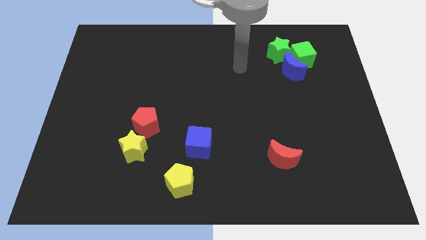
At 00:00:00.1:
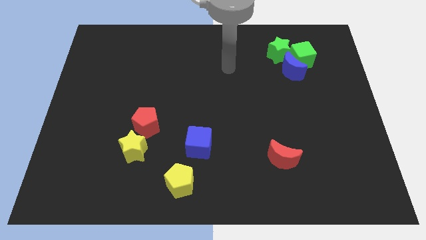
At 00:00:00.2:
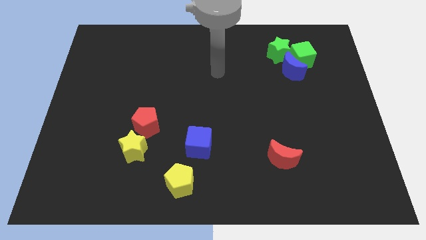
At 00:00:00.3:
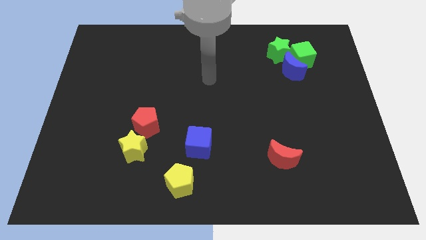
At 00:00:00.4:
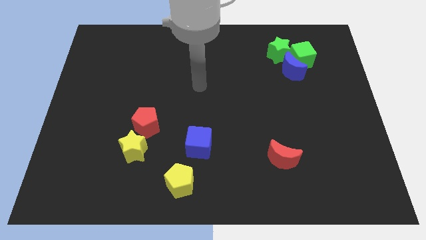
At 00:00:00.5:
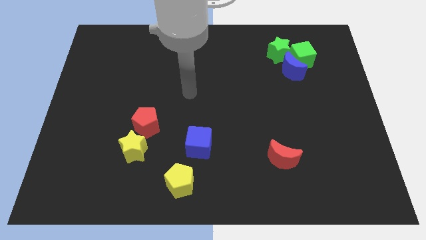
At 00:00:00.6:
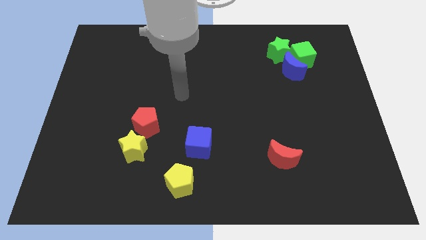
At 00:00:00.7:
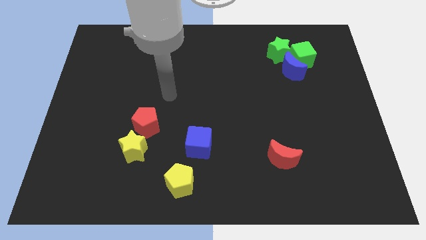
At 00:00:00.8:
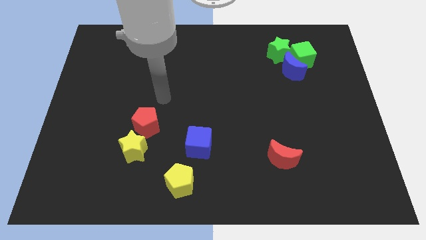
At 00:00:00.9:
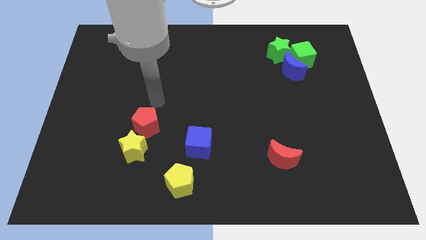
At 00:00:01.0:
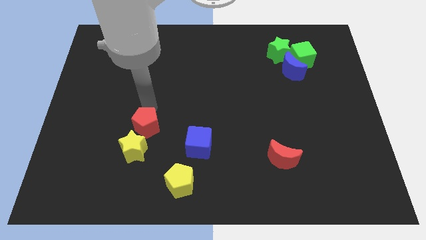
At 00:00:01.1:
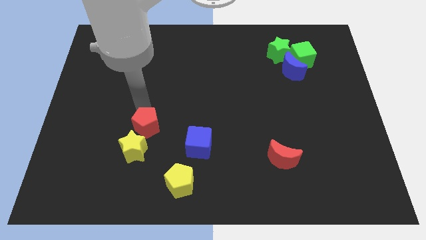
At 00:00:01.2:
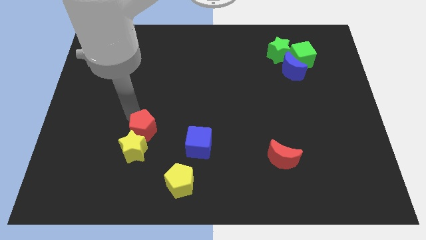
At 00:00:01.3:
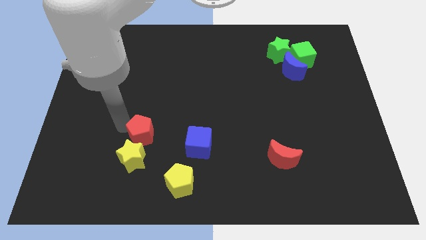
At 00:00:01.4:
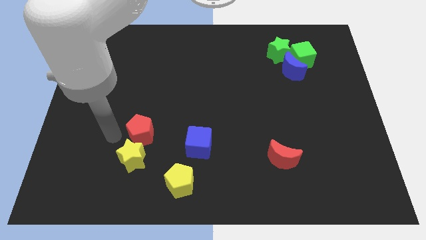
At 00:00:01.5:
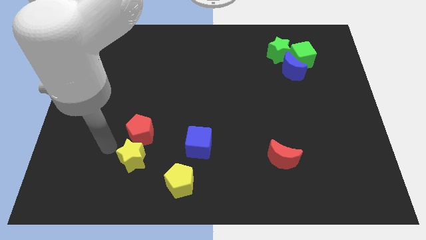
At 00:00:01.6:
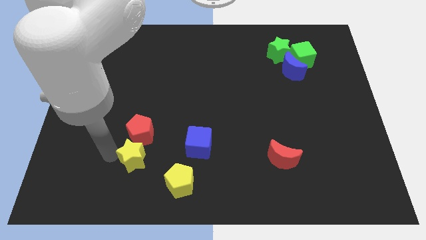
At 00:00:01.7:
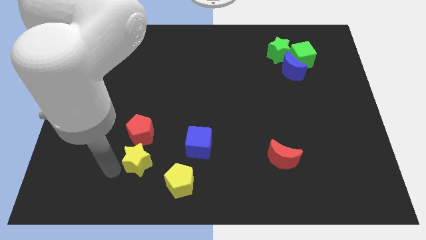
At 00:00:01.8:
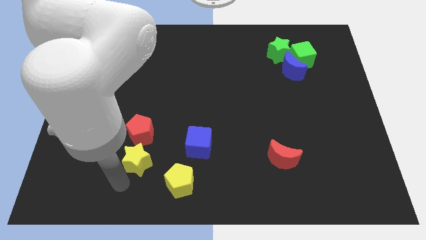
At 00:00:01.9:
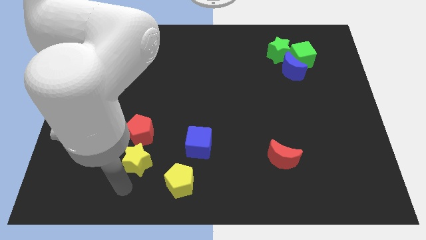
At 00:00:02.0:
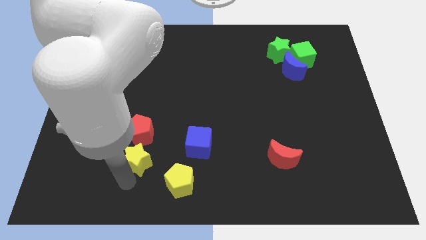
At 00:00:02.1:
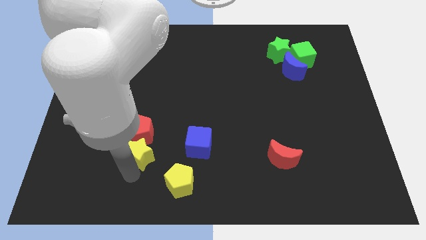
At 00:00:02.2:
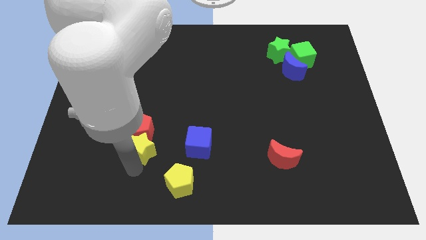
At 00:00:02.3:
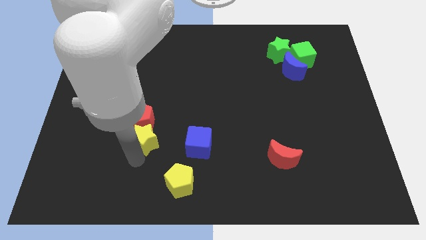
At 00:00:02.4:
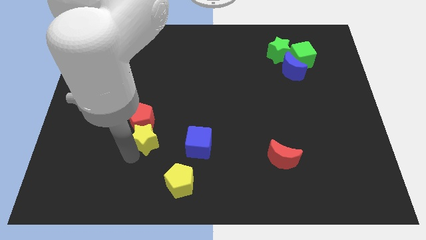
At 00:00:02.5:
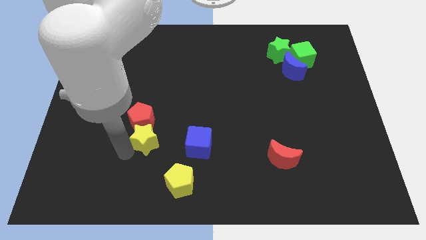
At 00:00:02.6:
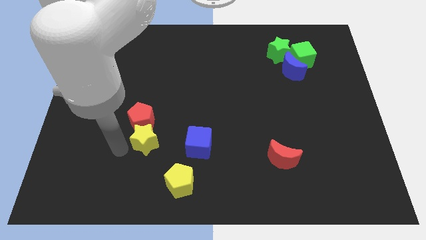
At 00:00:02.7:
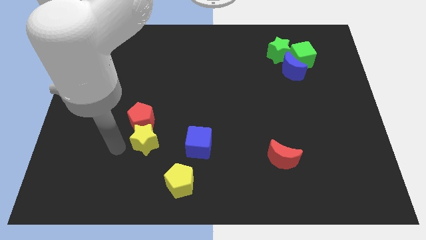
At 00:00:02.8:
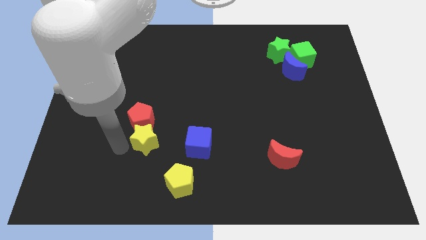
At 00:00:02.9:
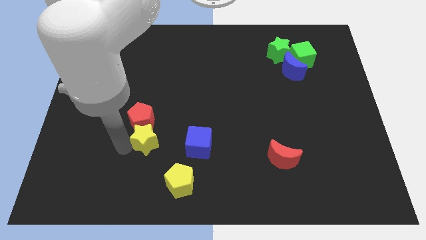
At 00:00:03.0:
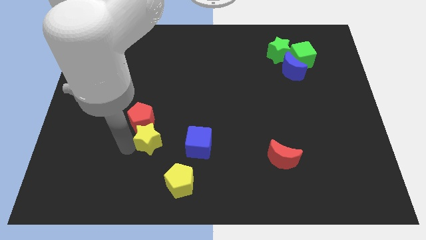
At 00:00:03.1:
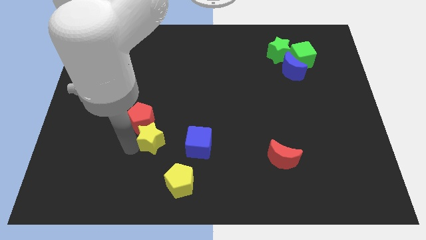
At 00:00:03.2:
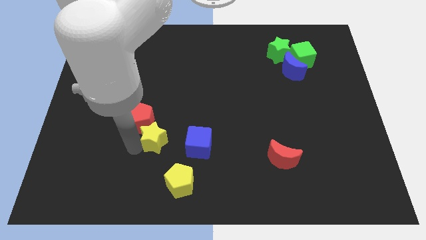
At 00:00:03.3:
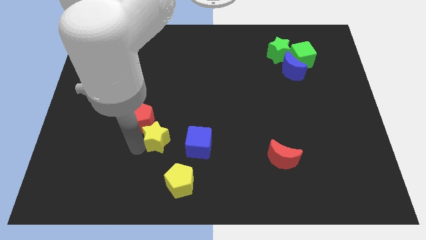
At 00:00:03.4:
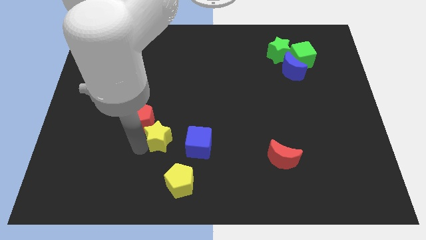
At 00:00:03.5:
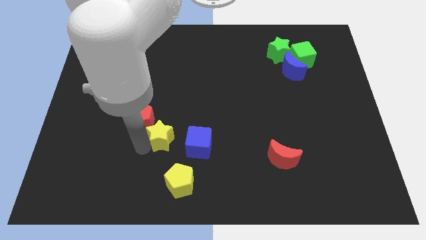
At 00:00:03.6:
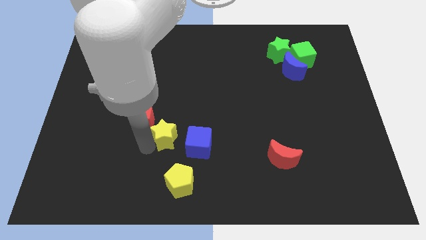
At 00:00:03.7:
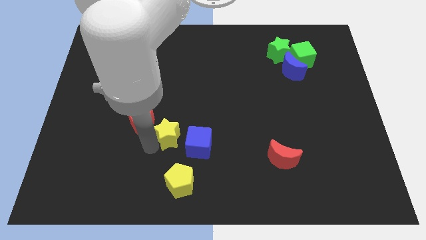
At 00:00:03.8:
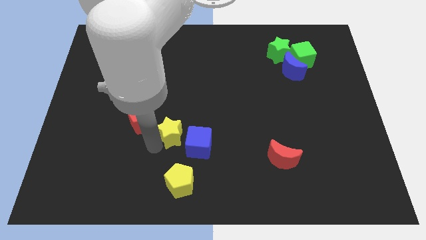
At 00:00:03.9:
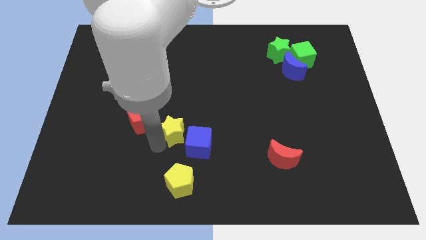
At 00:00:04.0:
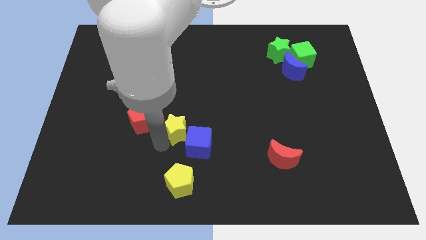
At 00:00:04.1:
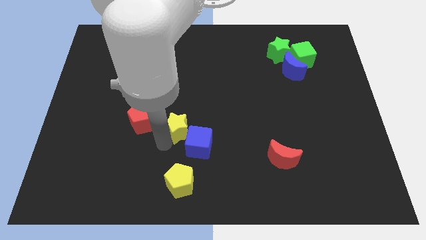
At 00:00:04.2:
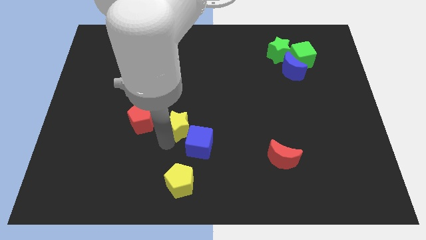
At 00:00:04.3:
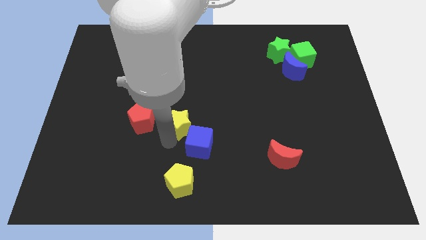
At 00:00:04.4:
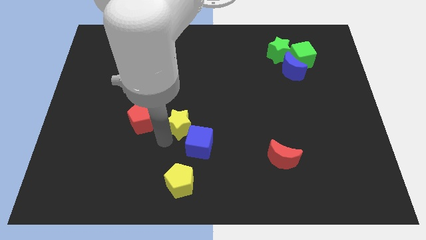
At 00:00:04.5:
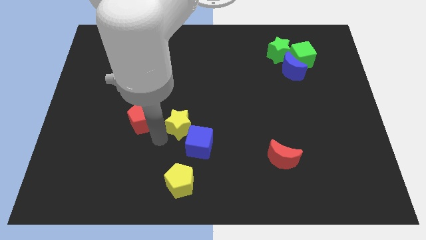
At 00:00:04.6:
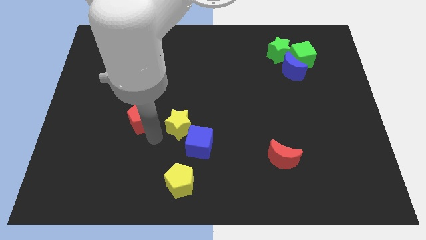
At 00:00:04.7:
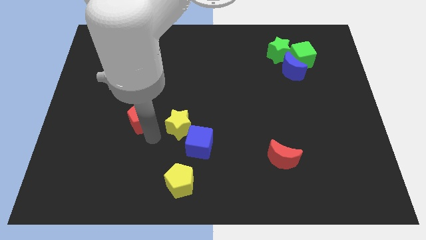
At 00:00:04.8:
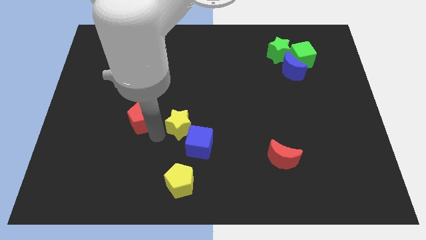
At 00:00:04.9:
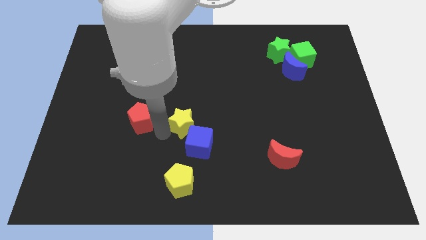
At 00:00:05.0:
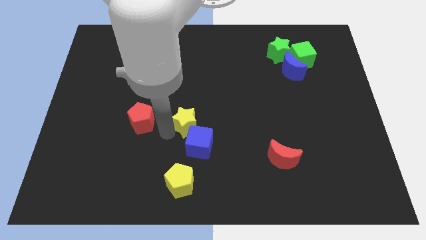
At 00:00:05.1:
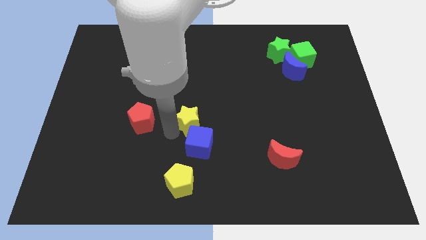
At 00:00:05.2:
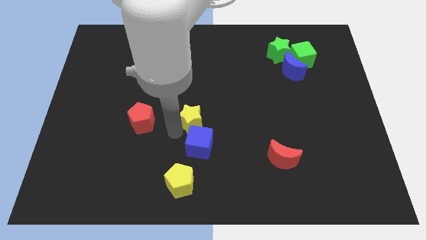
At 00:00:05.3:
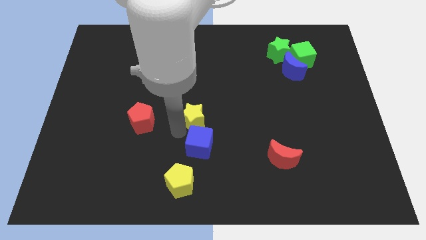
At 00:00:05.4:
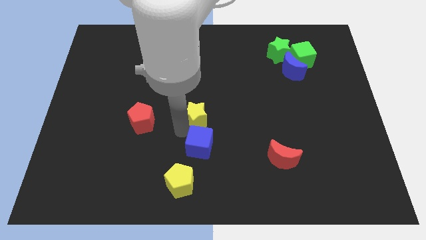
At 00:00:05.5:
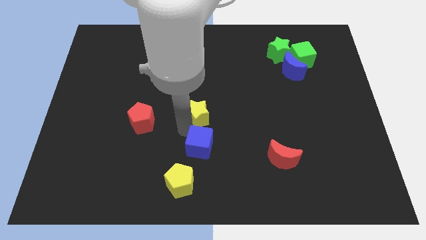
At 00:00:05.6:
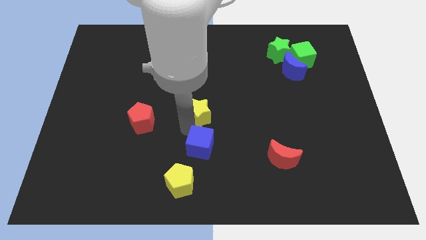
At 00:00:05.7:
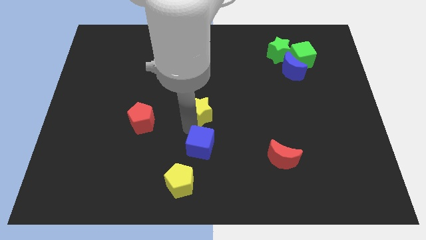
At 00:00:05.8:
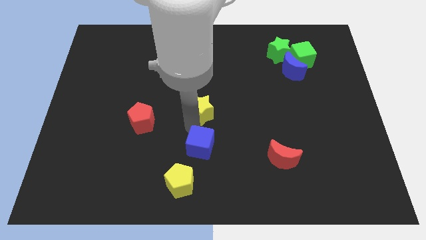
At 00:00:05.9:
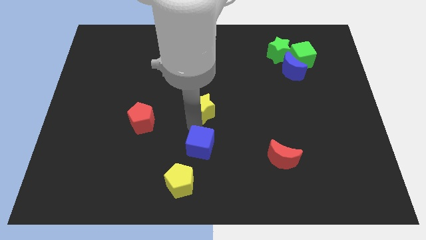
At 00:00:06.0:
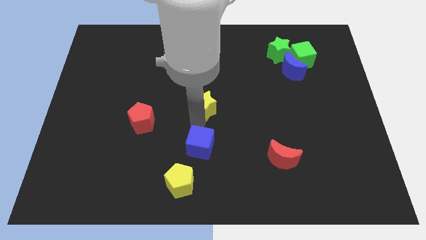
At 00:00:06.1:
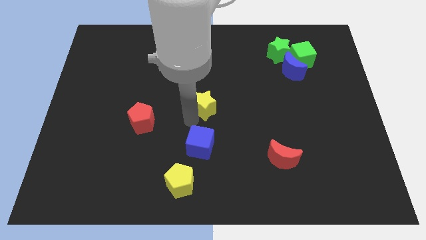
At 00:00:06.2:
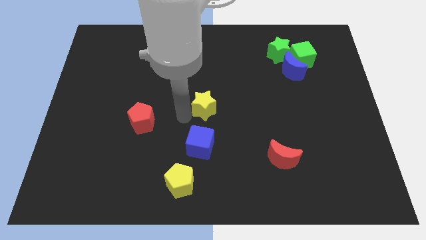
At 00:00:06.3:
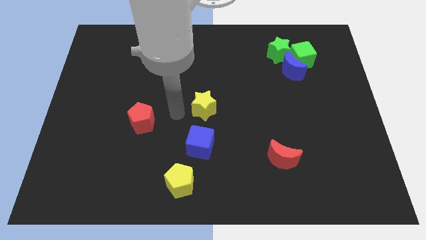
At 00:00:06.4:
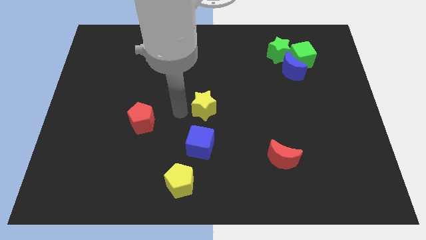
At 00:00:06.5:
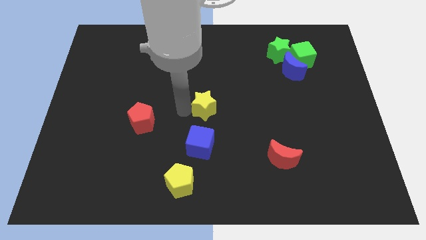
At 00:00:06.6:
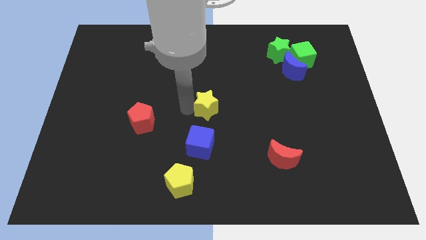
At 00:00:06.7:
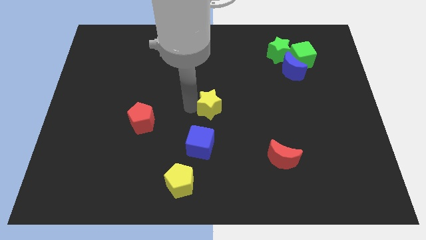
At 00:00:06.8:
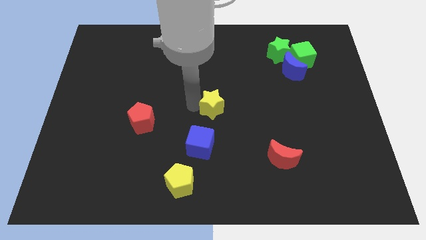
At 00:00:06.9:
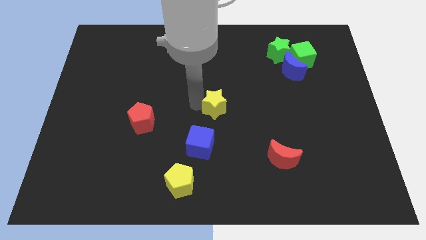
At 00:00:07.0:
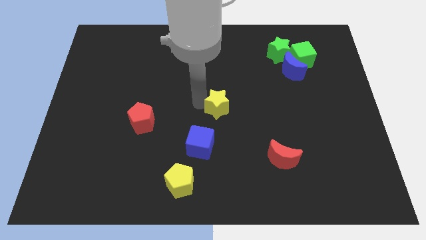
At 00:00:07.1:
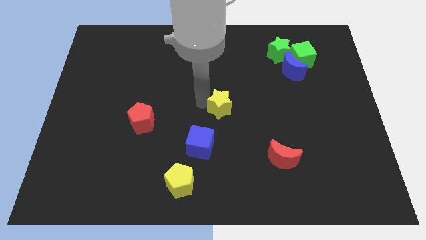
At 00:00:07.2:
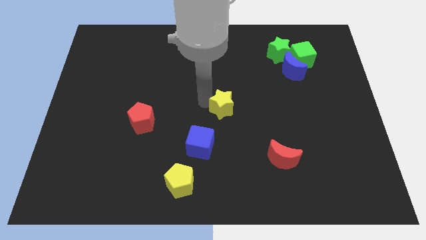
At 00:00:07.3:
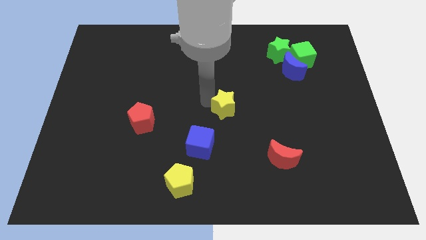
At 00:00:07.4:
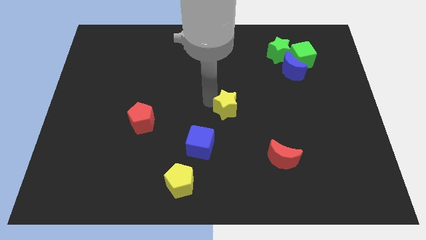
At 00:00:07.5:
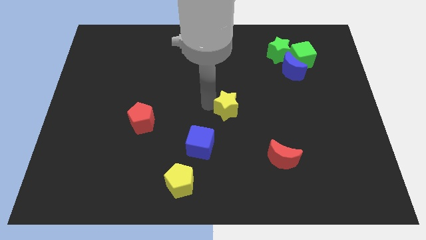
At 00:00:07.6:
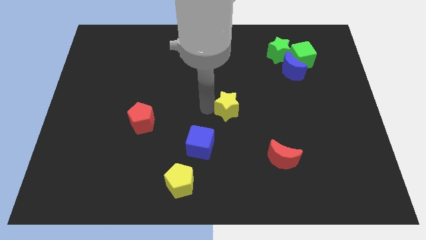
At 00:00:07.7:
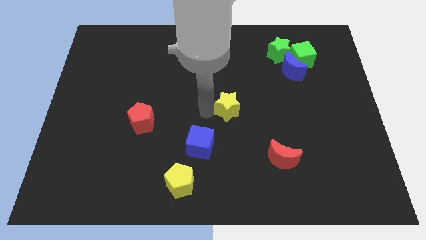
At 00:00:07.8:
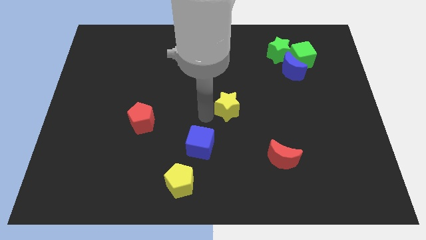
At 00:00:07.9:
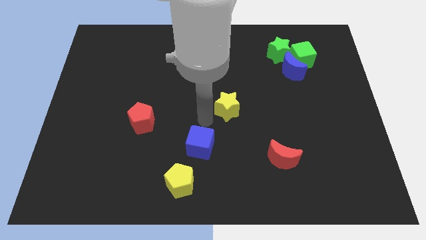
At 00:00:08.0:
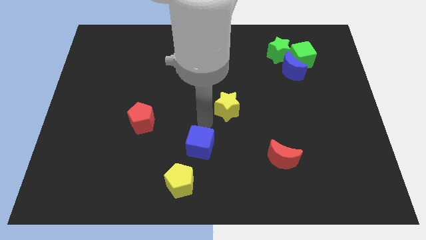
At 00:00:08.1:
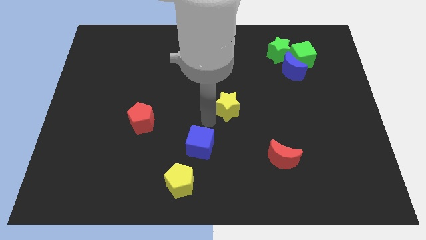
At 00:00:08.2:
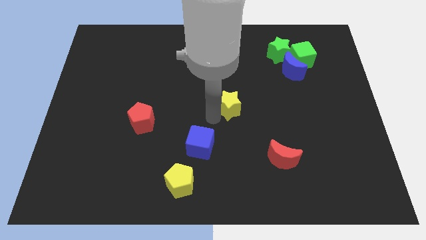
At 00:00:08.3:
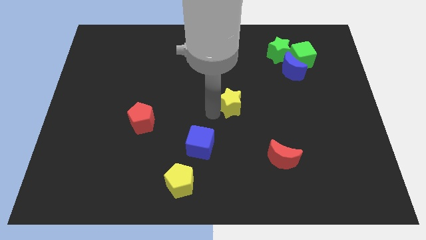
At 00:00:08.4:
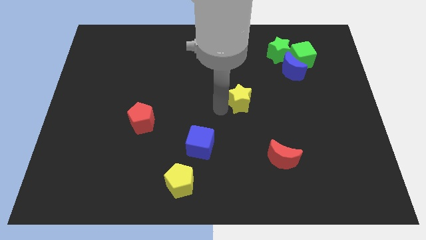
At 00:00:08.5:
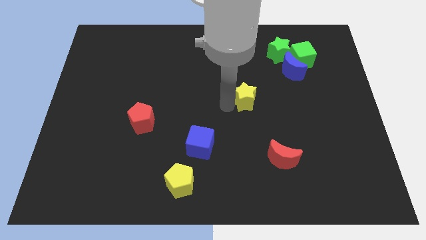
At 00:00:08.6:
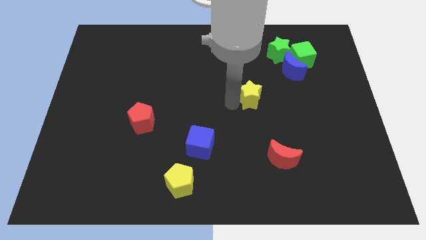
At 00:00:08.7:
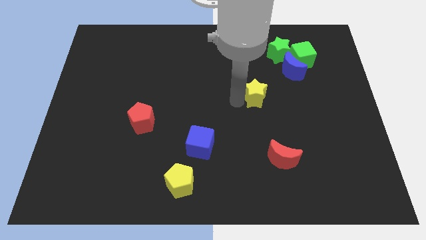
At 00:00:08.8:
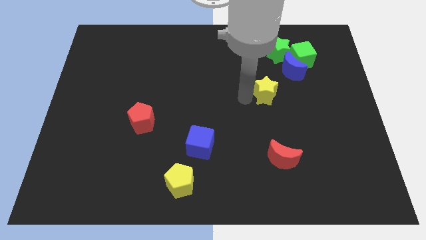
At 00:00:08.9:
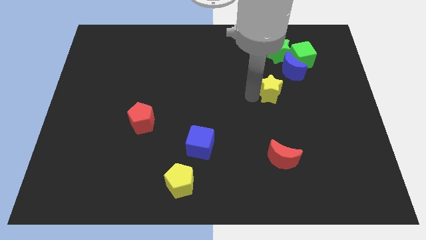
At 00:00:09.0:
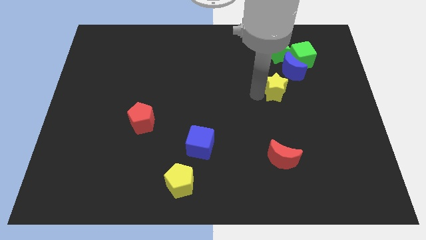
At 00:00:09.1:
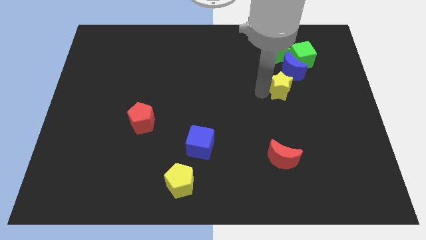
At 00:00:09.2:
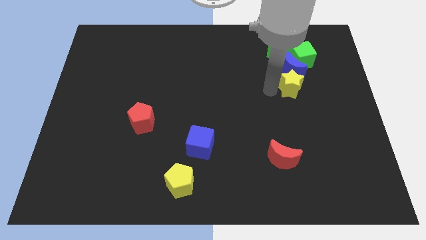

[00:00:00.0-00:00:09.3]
slide the yellow star to the bottom right of the blue moon
